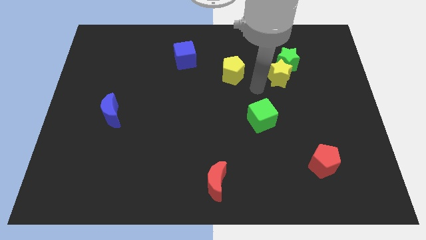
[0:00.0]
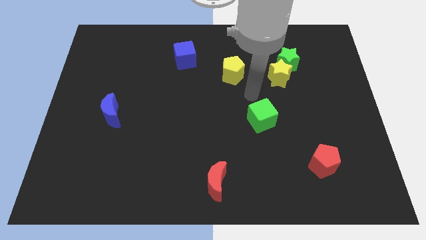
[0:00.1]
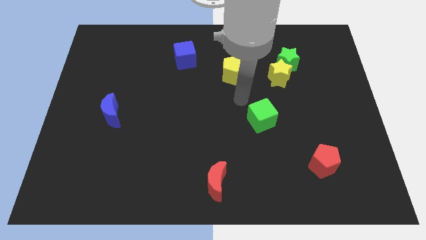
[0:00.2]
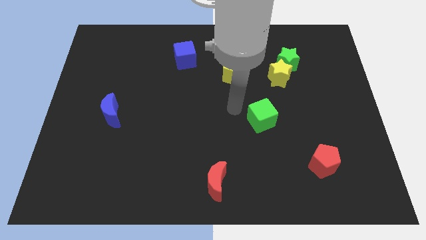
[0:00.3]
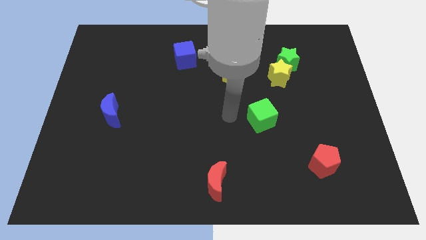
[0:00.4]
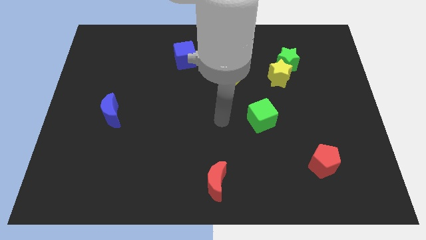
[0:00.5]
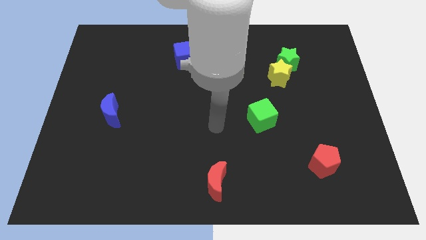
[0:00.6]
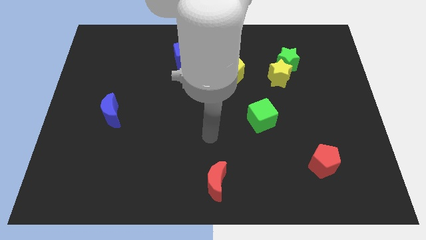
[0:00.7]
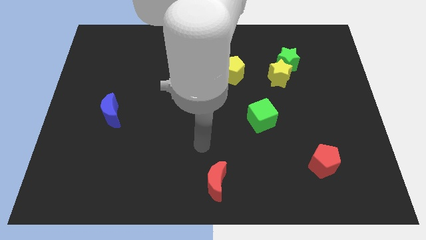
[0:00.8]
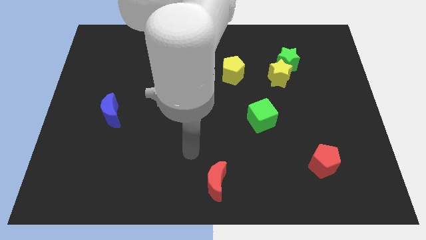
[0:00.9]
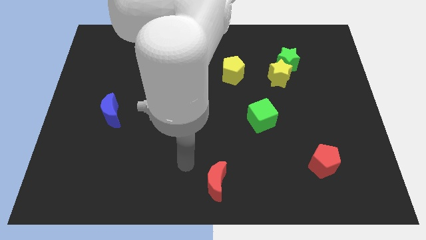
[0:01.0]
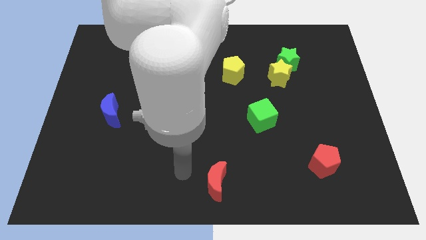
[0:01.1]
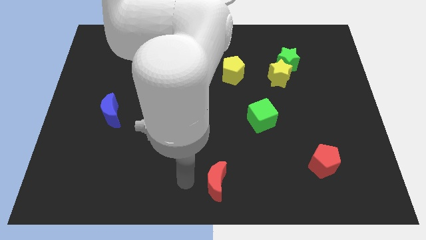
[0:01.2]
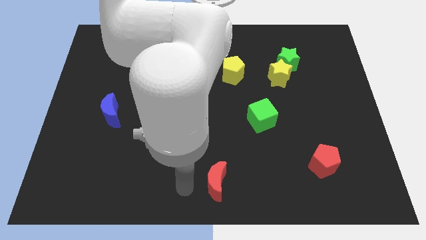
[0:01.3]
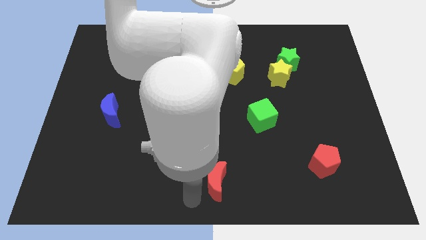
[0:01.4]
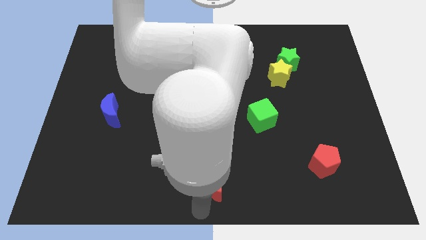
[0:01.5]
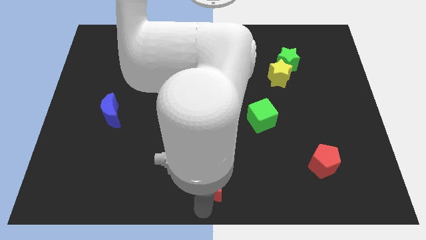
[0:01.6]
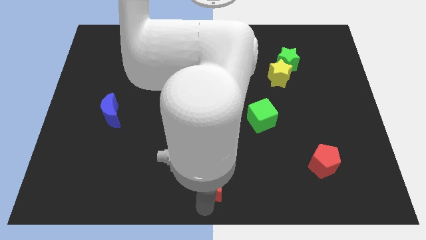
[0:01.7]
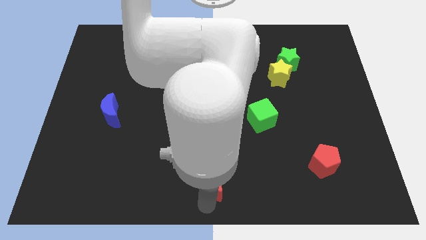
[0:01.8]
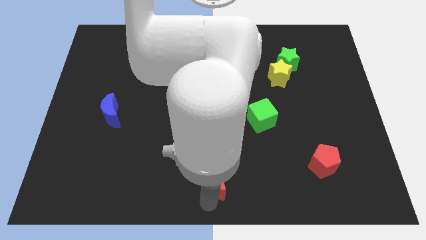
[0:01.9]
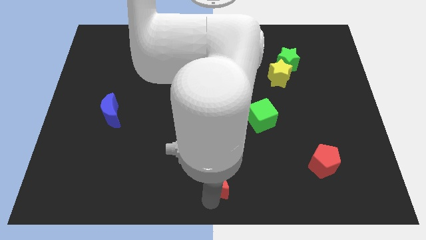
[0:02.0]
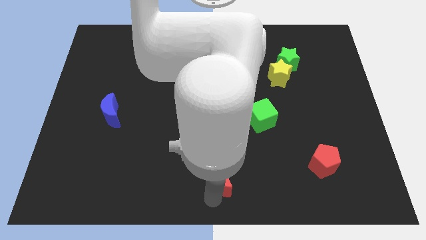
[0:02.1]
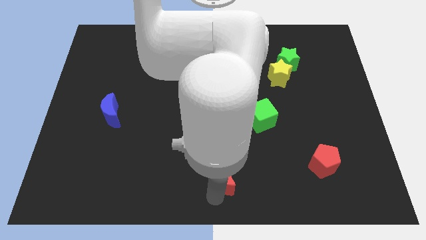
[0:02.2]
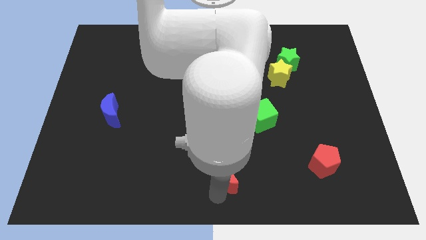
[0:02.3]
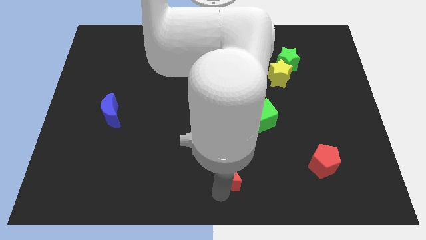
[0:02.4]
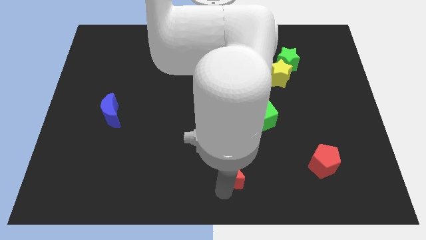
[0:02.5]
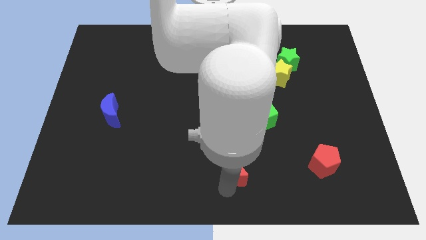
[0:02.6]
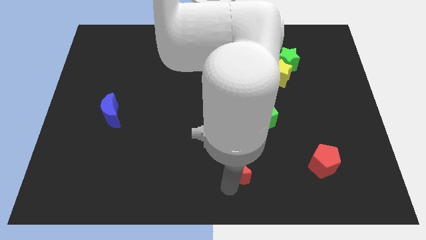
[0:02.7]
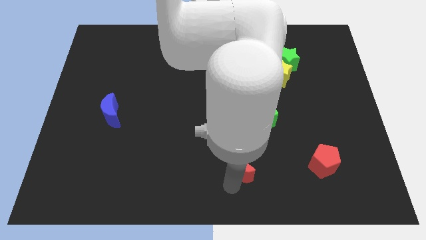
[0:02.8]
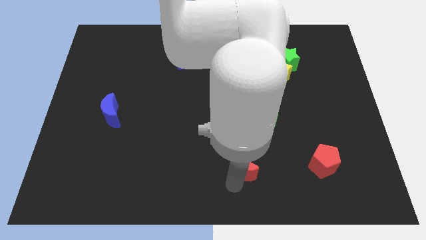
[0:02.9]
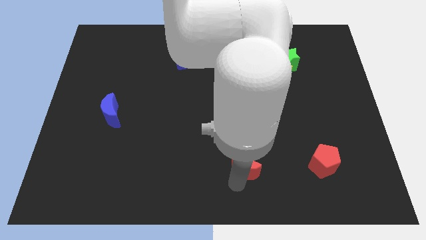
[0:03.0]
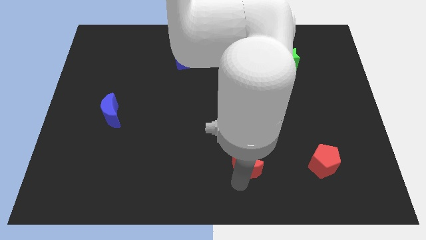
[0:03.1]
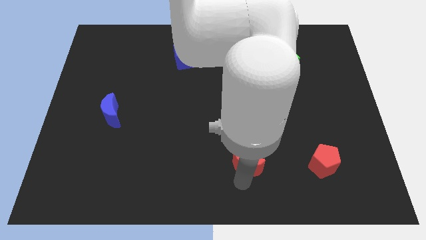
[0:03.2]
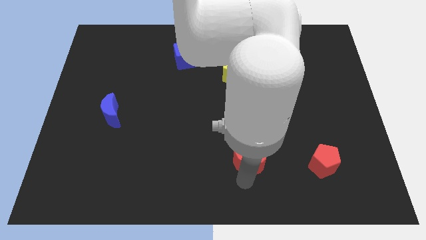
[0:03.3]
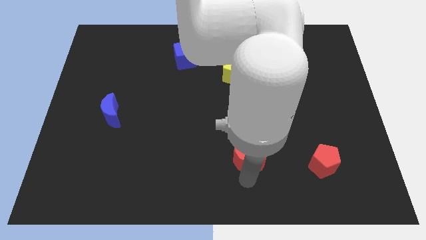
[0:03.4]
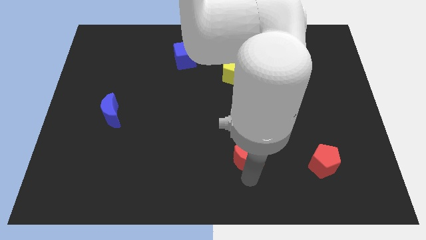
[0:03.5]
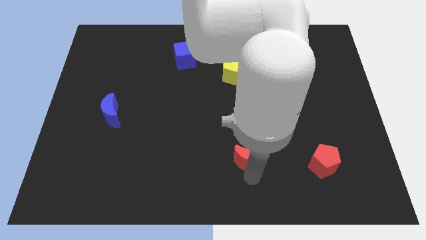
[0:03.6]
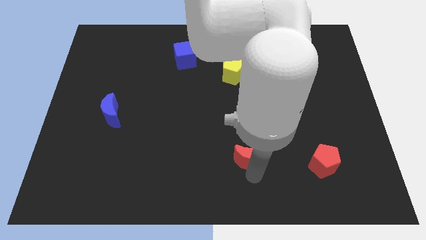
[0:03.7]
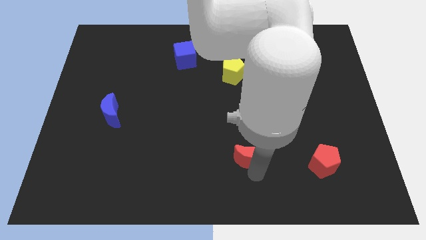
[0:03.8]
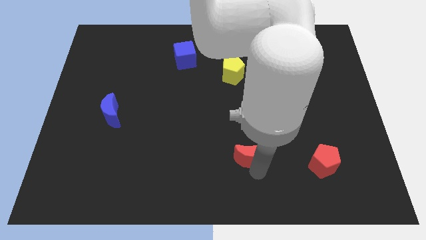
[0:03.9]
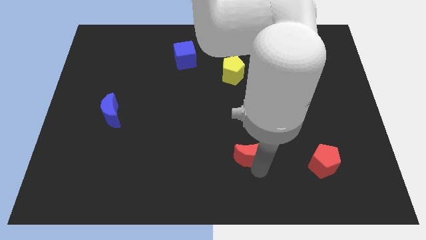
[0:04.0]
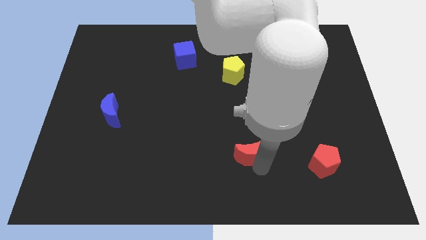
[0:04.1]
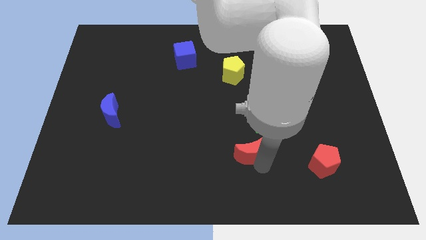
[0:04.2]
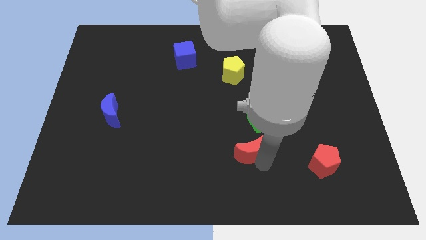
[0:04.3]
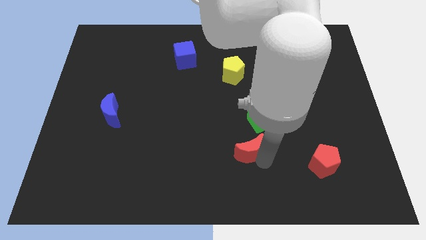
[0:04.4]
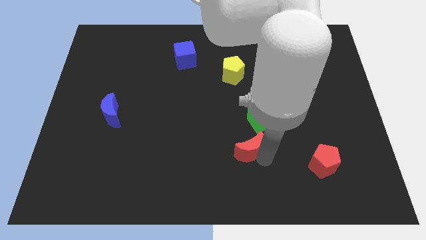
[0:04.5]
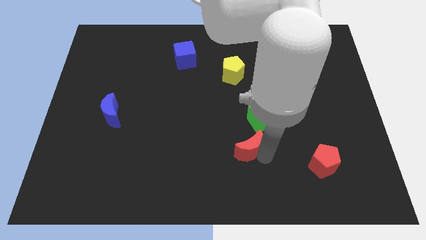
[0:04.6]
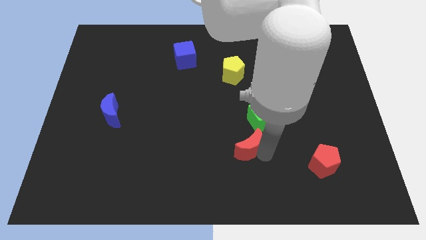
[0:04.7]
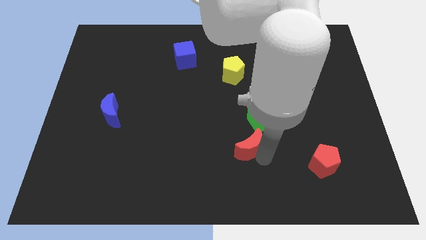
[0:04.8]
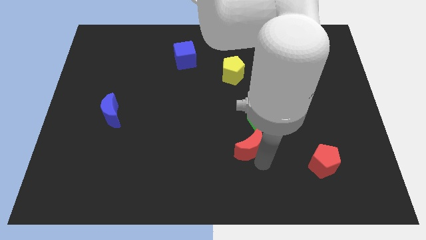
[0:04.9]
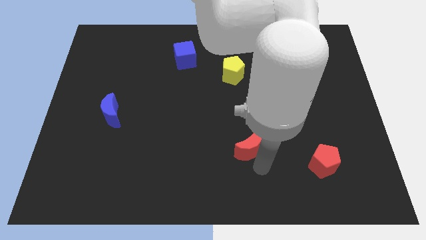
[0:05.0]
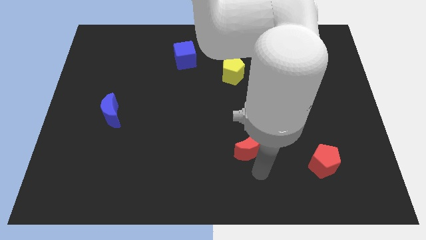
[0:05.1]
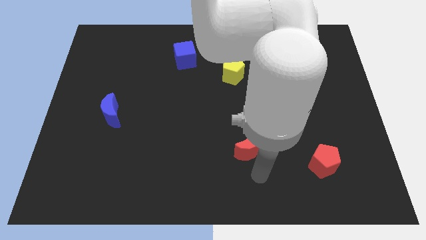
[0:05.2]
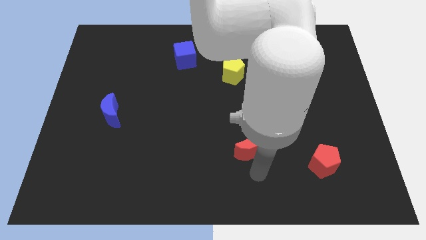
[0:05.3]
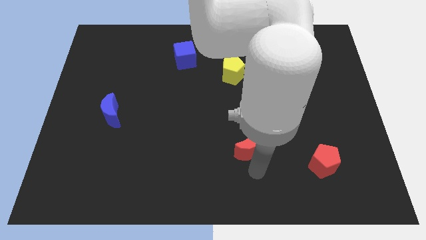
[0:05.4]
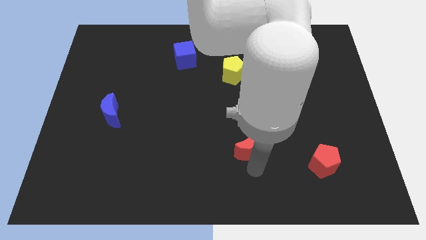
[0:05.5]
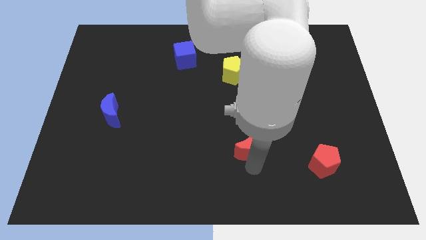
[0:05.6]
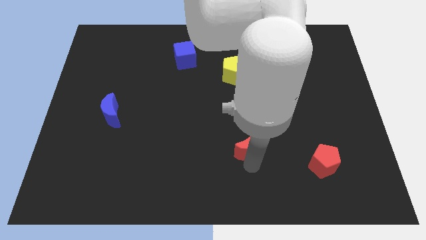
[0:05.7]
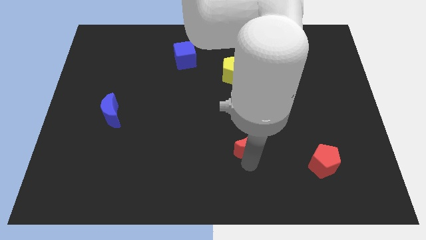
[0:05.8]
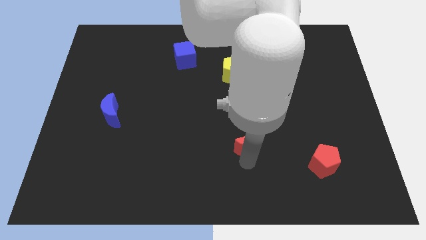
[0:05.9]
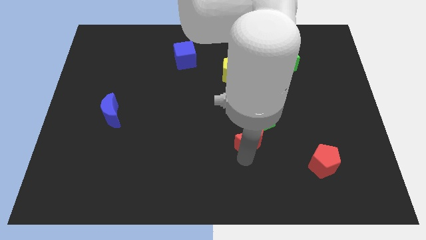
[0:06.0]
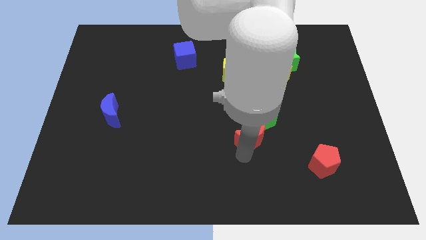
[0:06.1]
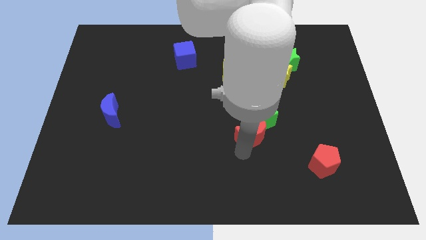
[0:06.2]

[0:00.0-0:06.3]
slide the red moon to the green cube

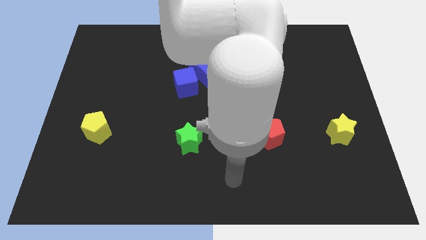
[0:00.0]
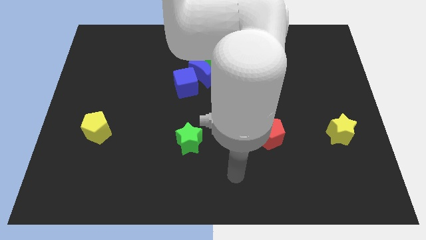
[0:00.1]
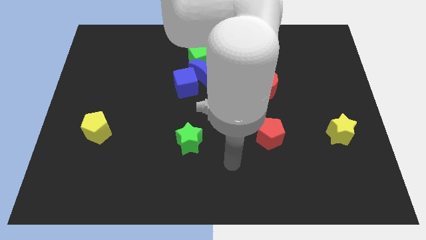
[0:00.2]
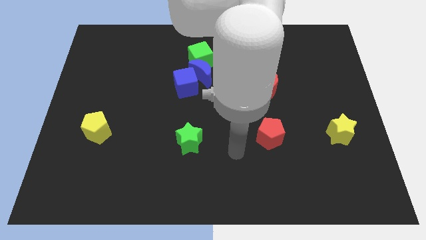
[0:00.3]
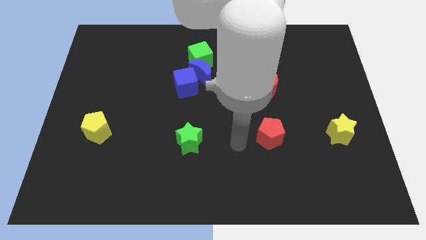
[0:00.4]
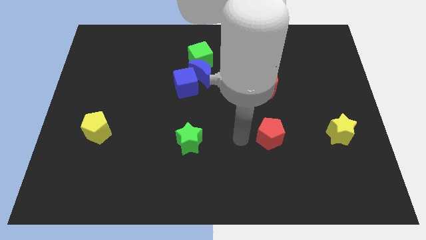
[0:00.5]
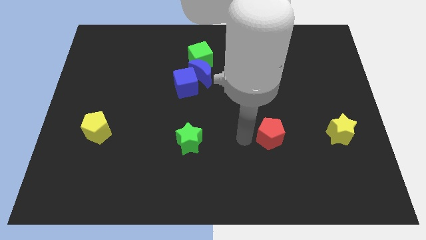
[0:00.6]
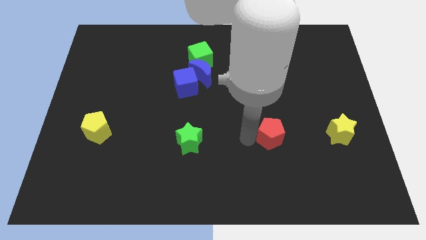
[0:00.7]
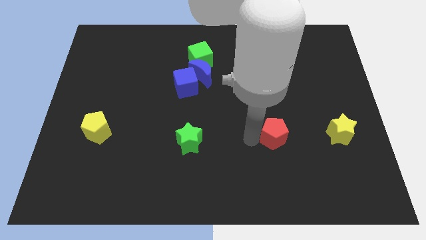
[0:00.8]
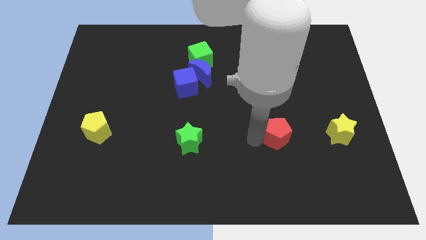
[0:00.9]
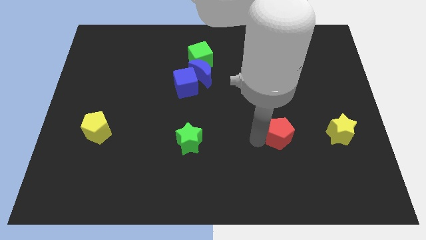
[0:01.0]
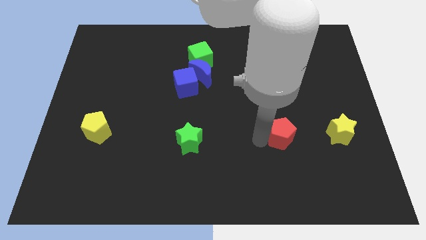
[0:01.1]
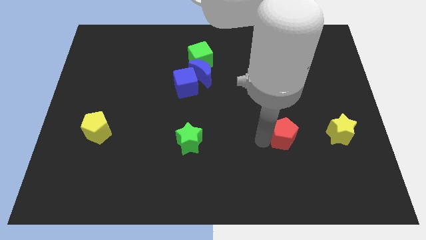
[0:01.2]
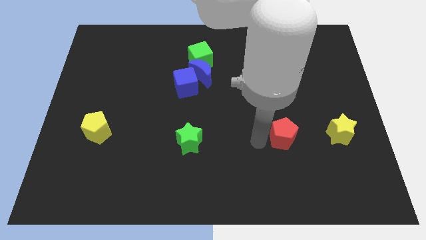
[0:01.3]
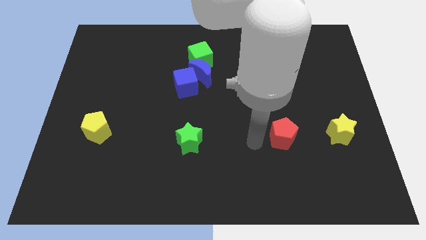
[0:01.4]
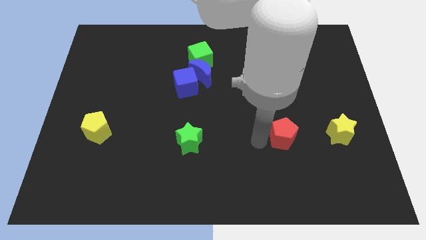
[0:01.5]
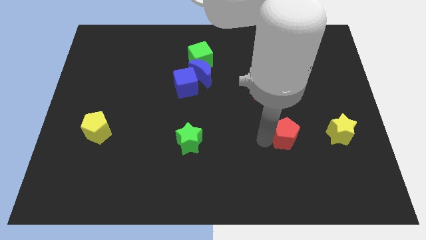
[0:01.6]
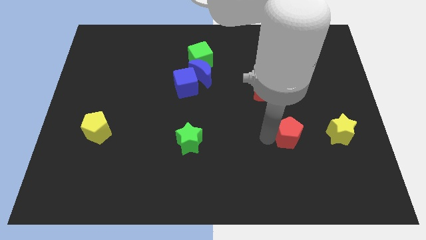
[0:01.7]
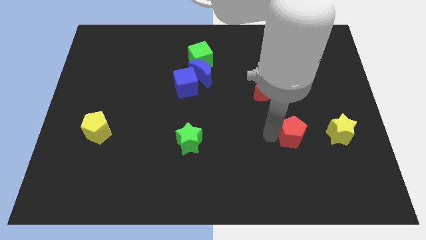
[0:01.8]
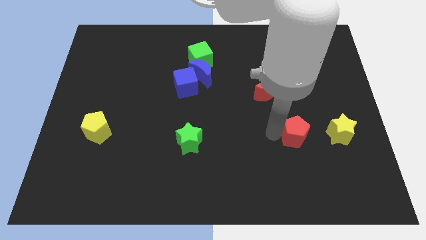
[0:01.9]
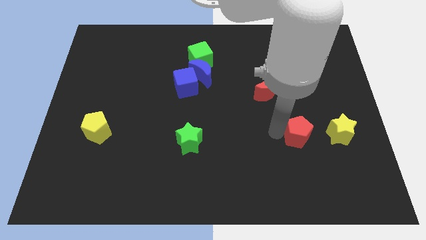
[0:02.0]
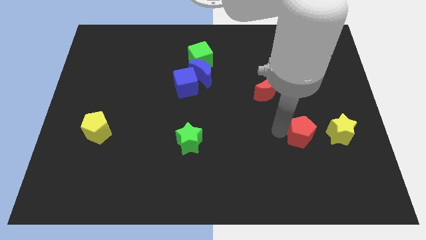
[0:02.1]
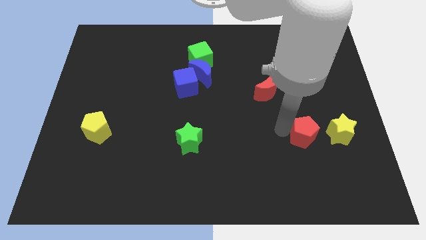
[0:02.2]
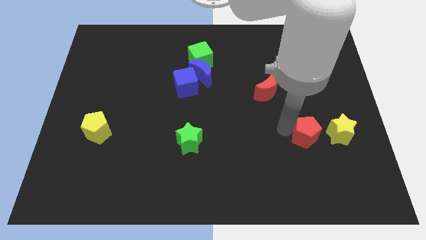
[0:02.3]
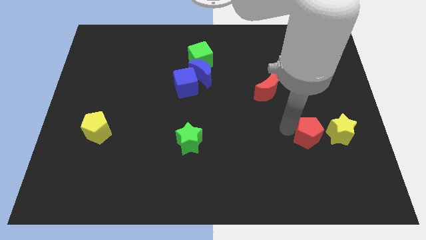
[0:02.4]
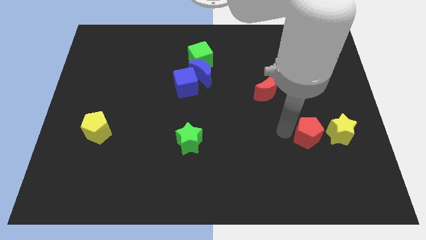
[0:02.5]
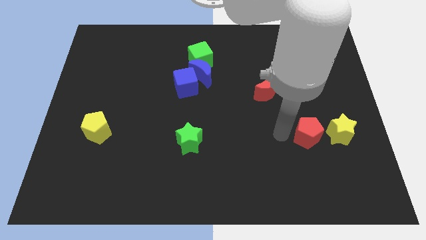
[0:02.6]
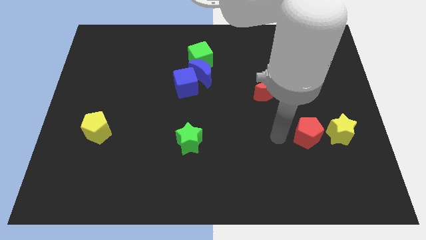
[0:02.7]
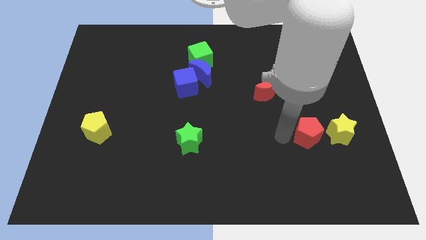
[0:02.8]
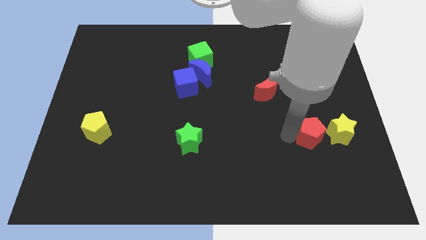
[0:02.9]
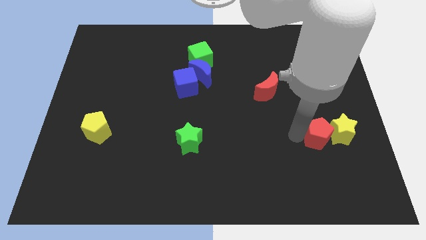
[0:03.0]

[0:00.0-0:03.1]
put the red pentagon close to the yellow star
